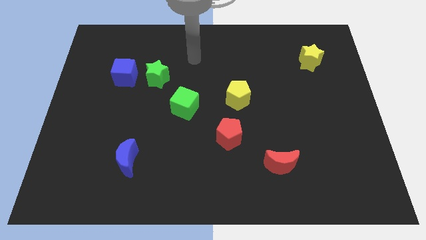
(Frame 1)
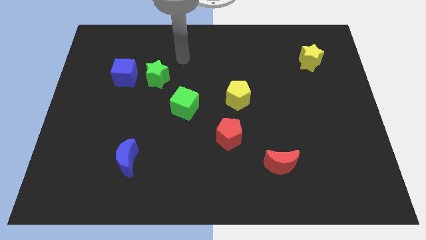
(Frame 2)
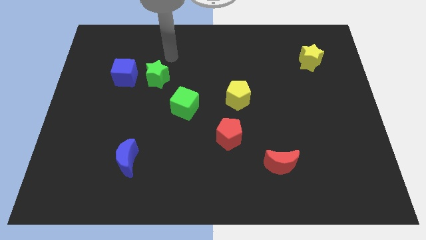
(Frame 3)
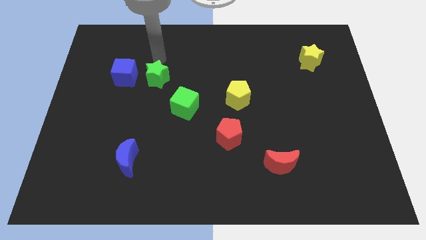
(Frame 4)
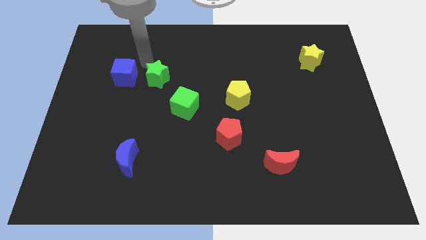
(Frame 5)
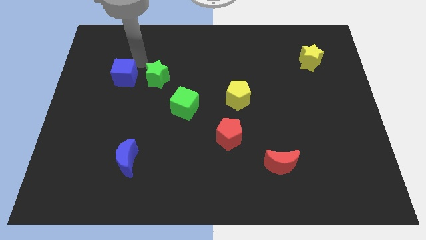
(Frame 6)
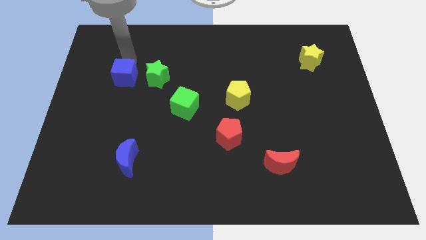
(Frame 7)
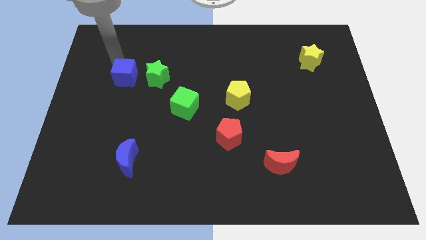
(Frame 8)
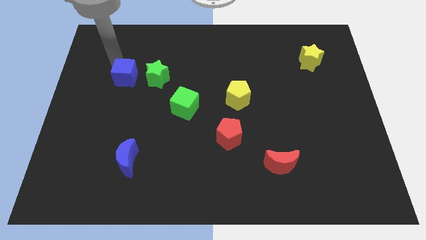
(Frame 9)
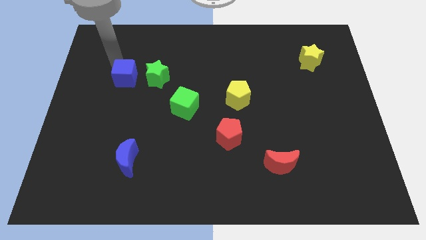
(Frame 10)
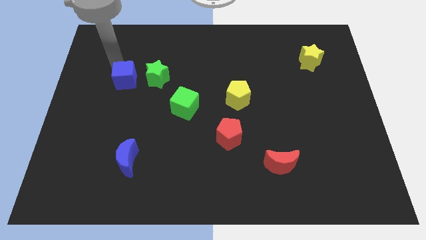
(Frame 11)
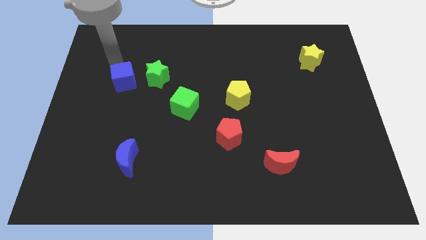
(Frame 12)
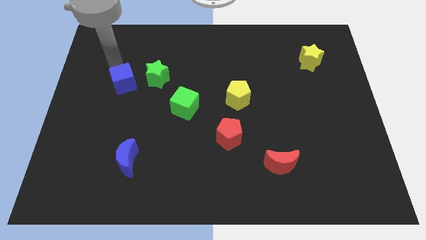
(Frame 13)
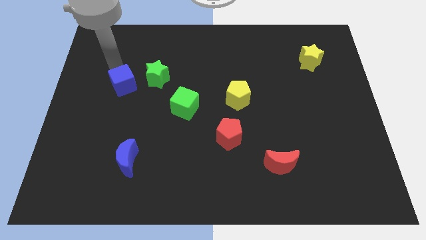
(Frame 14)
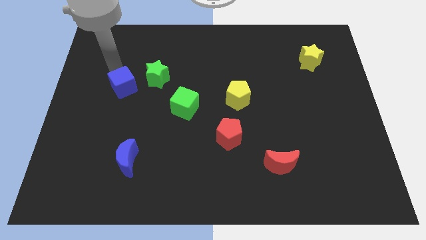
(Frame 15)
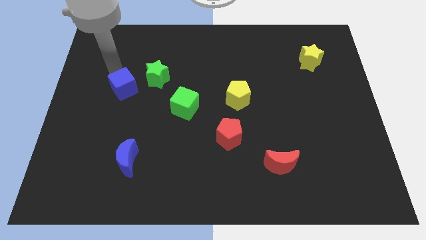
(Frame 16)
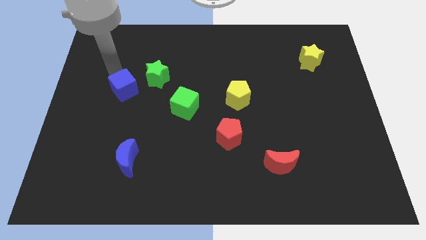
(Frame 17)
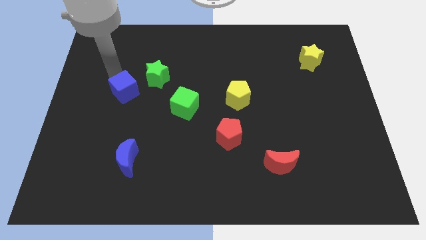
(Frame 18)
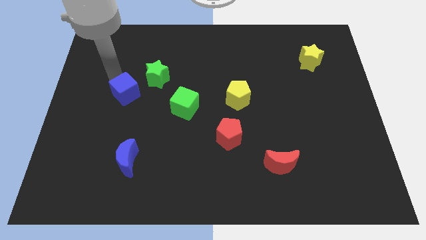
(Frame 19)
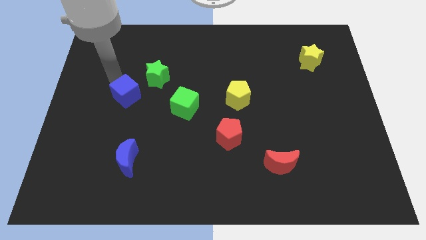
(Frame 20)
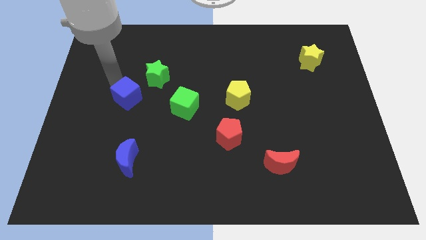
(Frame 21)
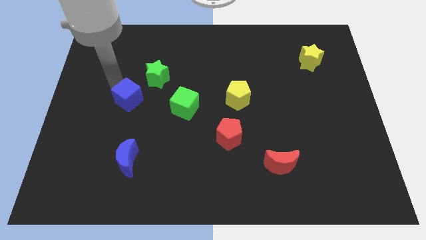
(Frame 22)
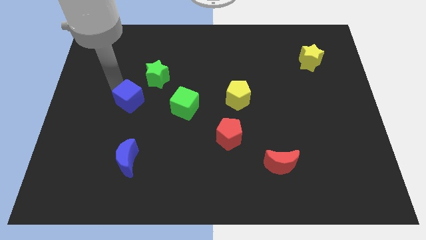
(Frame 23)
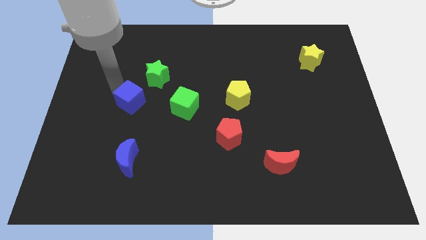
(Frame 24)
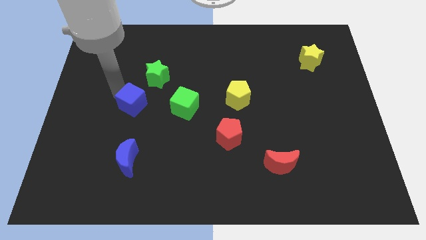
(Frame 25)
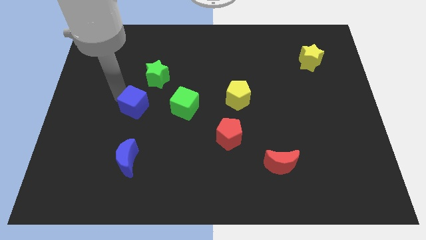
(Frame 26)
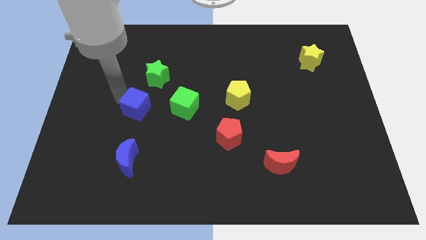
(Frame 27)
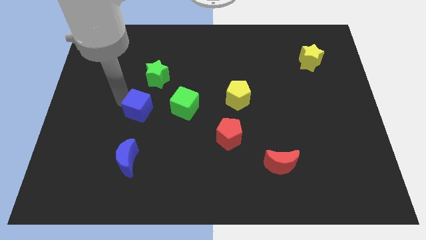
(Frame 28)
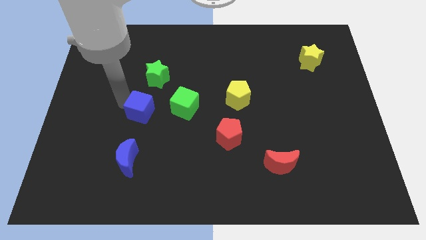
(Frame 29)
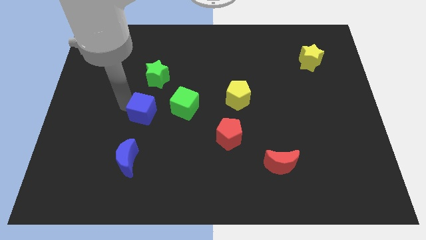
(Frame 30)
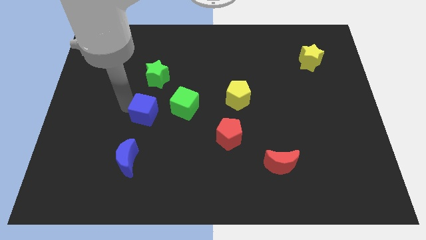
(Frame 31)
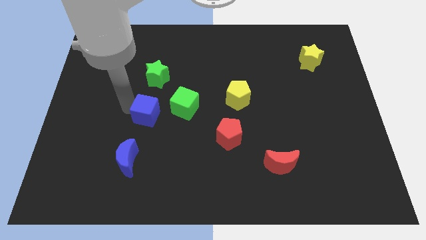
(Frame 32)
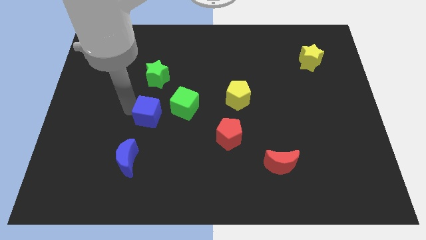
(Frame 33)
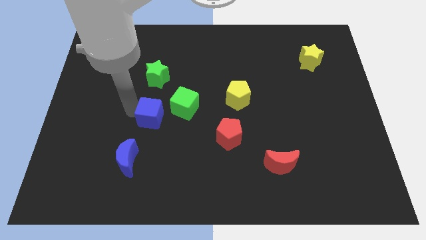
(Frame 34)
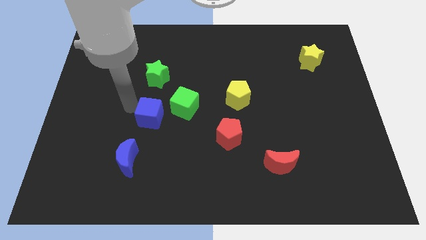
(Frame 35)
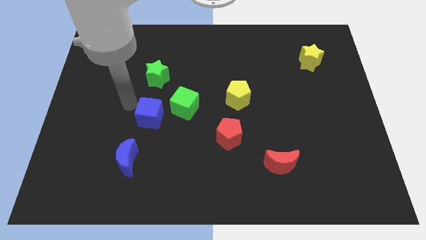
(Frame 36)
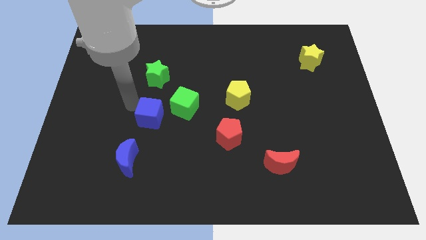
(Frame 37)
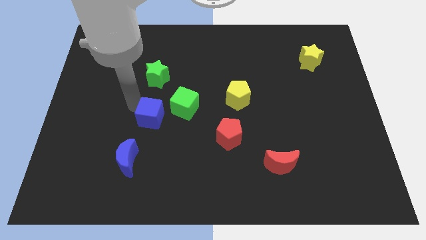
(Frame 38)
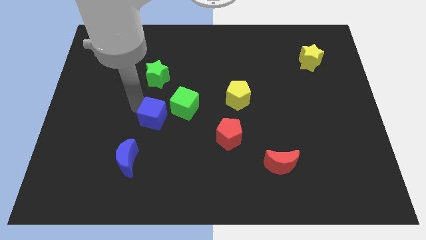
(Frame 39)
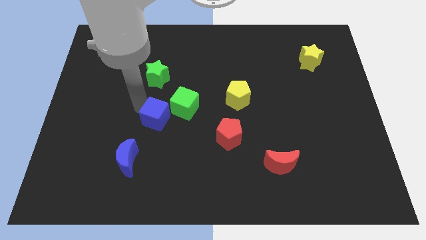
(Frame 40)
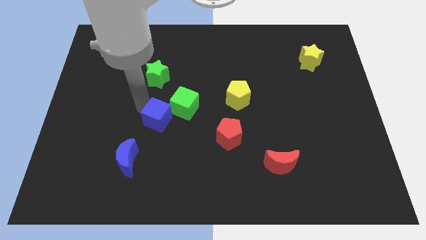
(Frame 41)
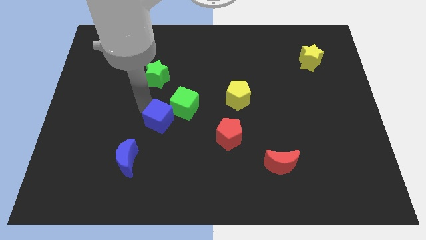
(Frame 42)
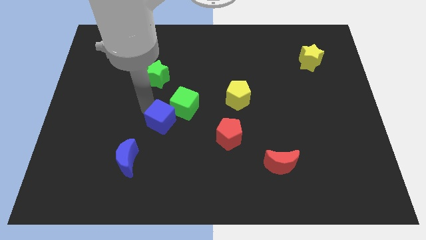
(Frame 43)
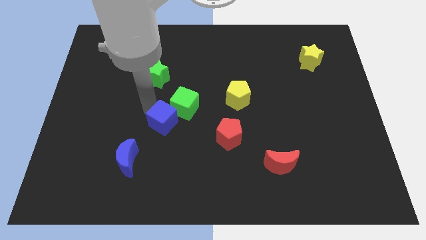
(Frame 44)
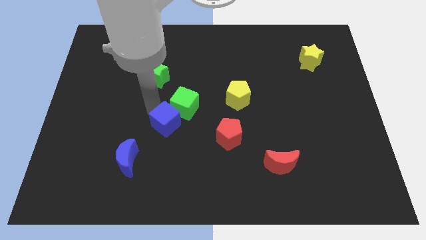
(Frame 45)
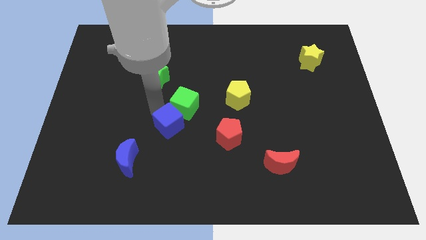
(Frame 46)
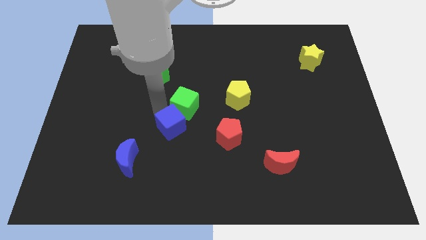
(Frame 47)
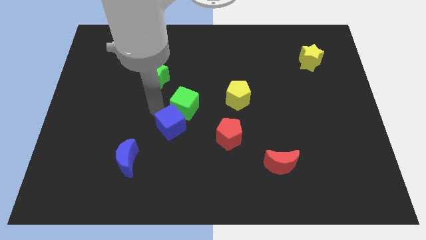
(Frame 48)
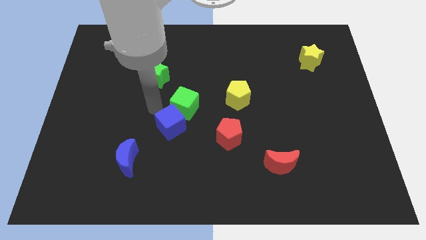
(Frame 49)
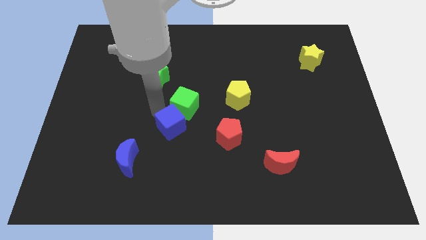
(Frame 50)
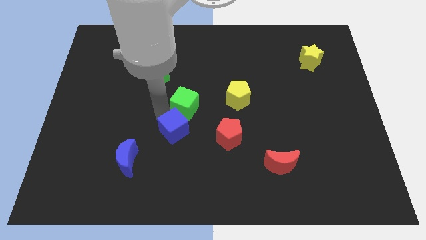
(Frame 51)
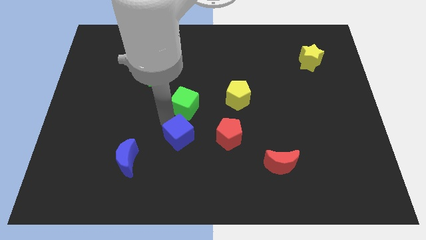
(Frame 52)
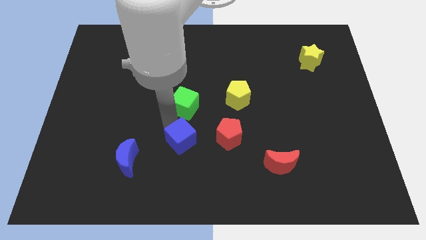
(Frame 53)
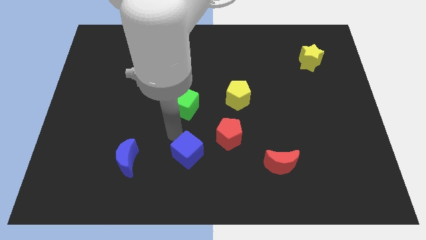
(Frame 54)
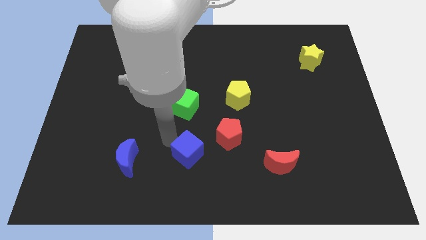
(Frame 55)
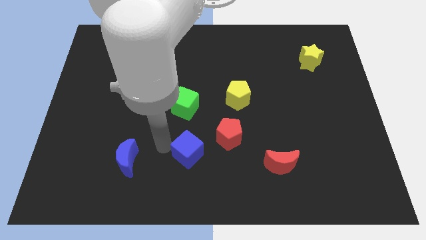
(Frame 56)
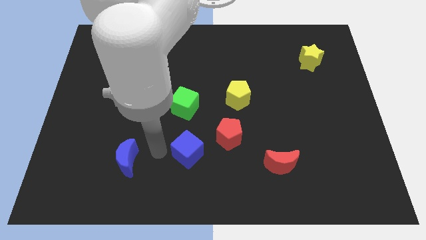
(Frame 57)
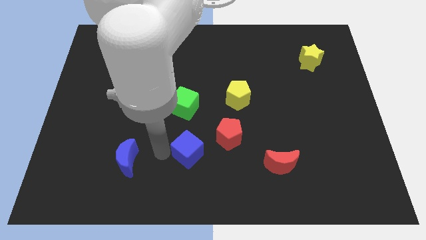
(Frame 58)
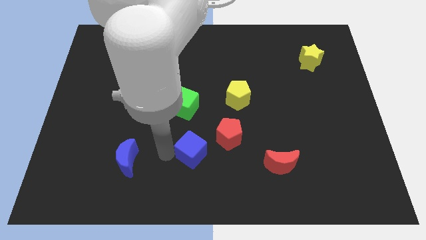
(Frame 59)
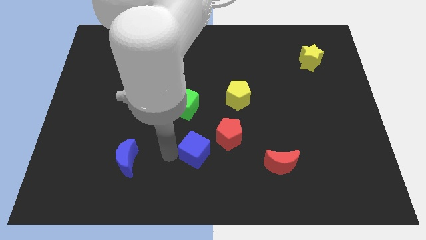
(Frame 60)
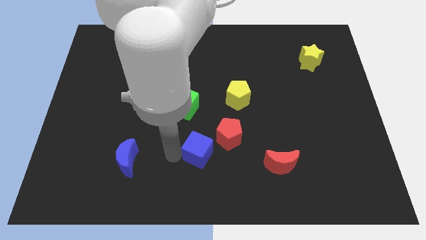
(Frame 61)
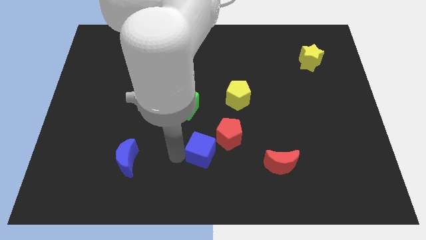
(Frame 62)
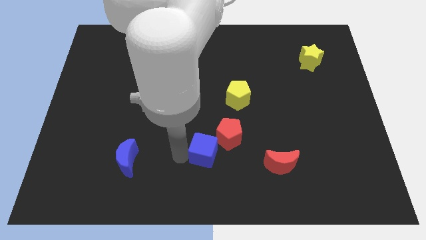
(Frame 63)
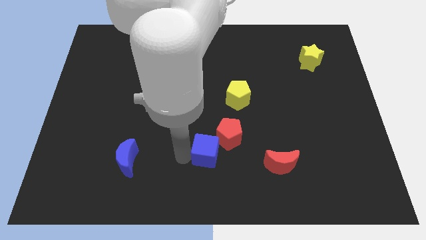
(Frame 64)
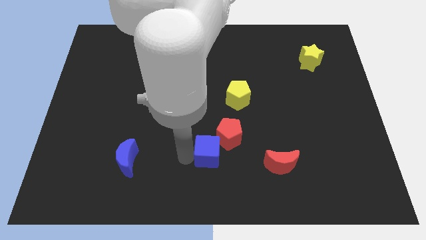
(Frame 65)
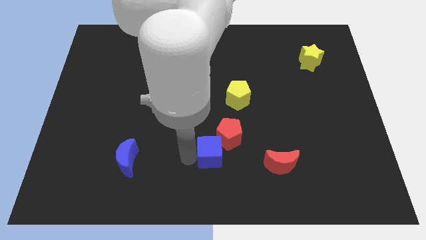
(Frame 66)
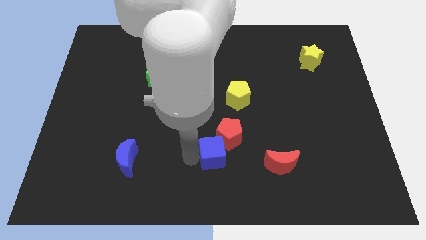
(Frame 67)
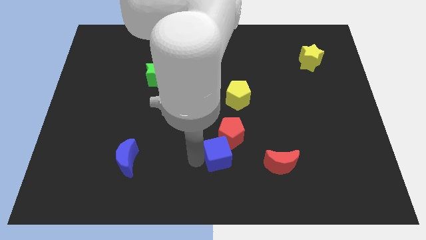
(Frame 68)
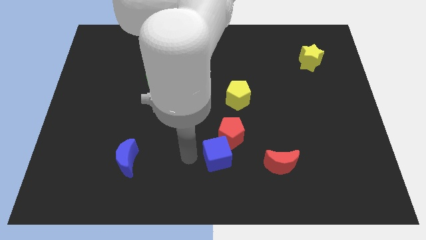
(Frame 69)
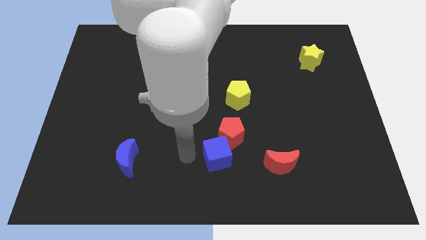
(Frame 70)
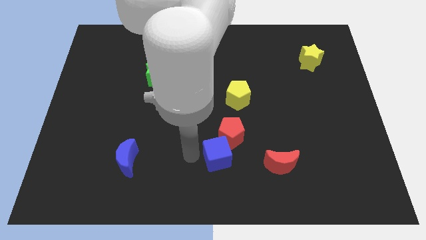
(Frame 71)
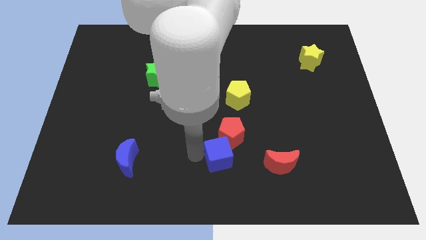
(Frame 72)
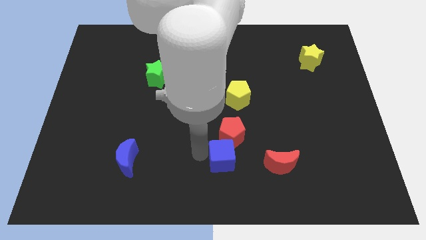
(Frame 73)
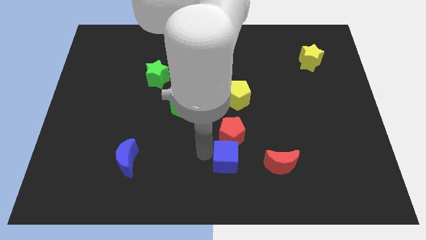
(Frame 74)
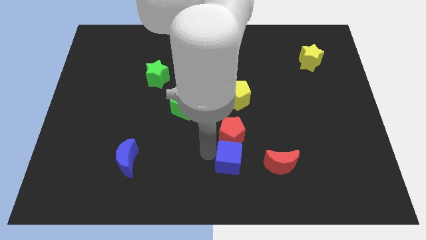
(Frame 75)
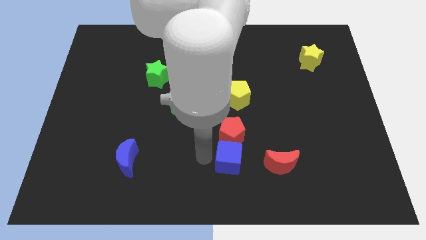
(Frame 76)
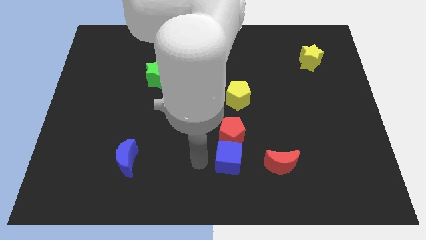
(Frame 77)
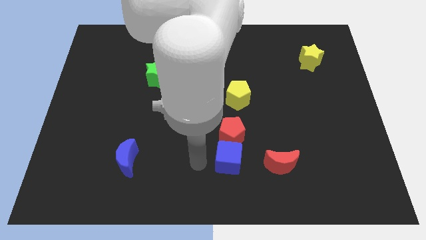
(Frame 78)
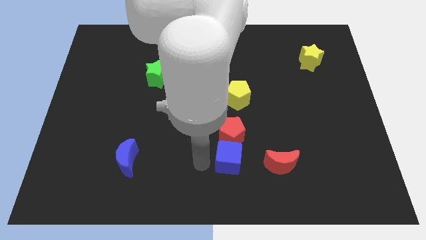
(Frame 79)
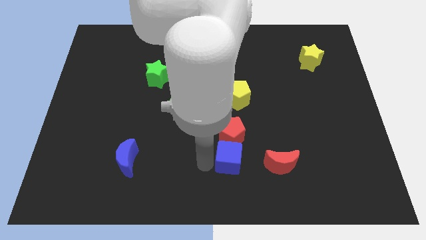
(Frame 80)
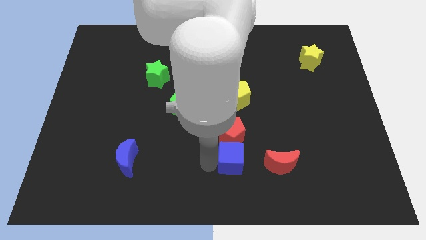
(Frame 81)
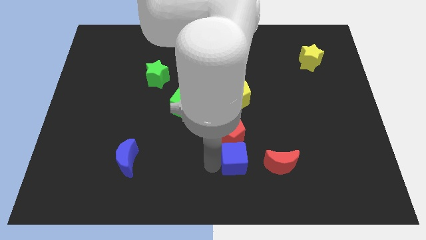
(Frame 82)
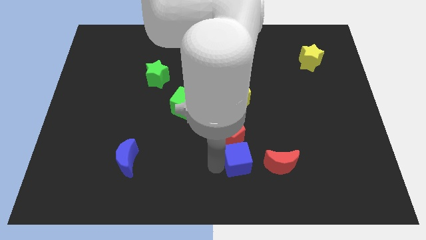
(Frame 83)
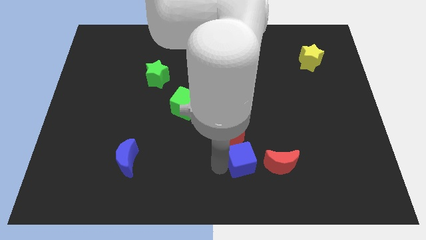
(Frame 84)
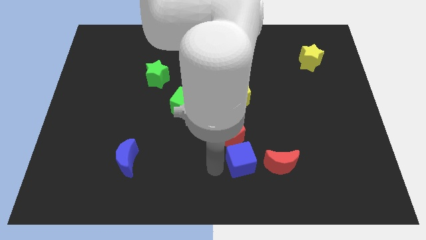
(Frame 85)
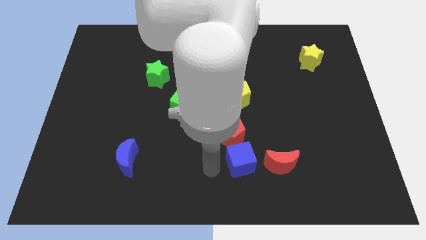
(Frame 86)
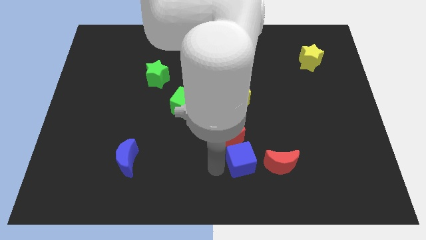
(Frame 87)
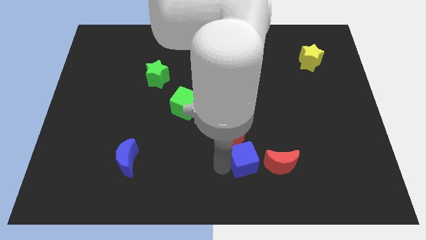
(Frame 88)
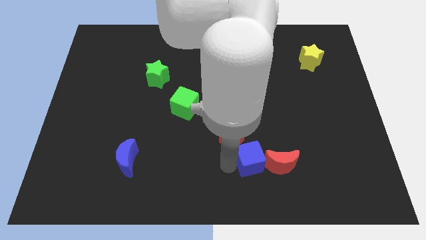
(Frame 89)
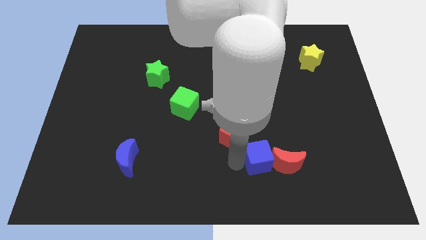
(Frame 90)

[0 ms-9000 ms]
move the blue cube to the red moon
